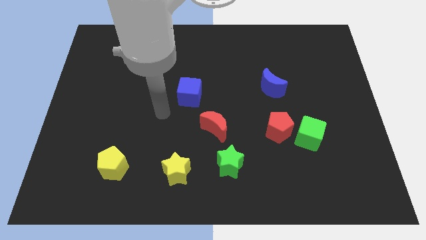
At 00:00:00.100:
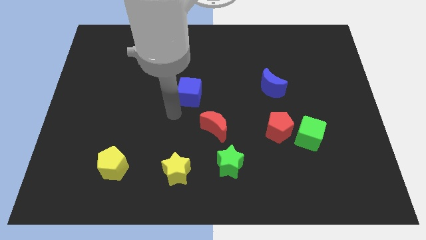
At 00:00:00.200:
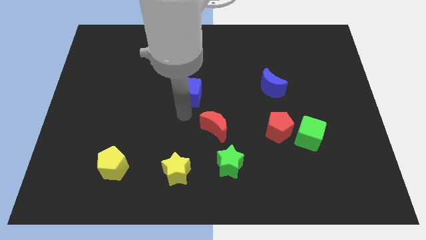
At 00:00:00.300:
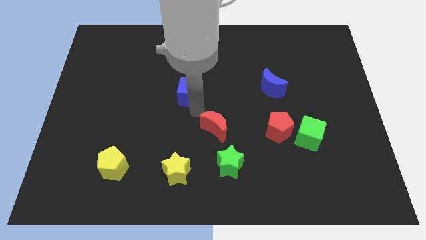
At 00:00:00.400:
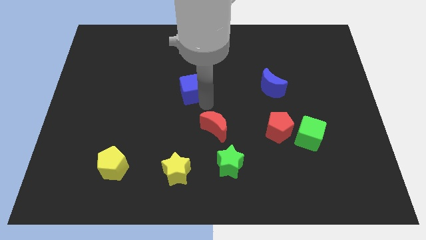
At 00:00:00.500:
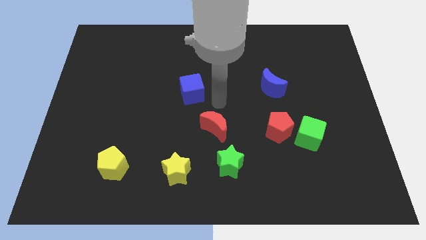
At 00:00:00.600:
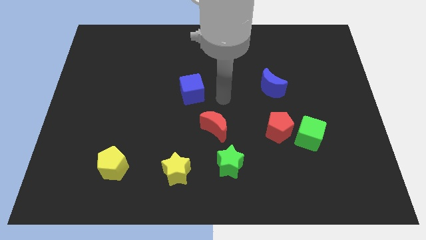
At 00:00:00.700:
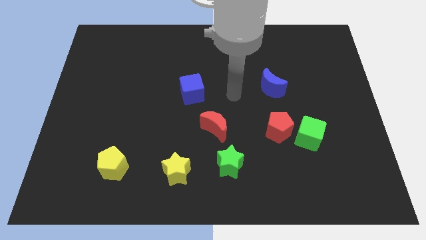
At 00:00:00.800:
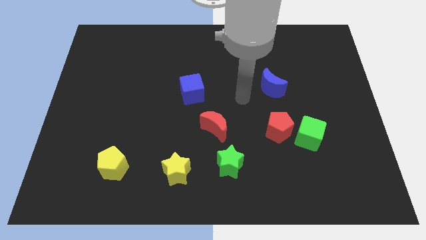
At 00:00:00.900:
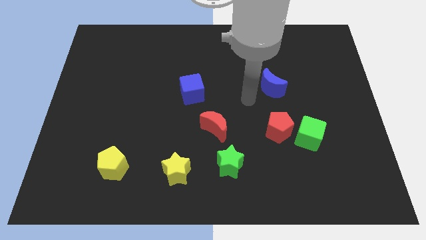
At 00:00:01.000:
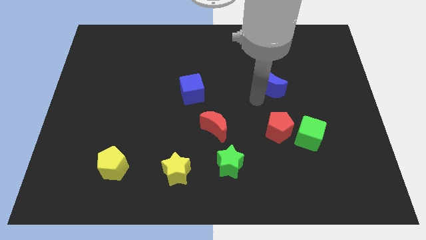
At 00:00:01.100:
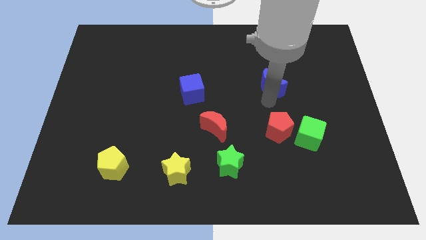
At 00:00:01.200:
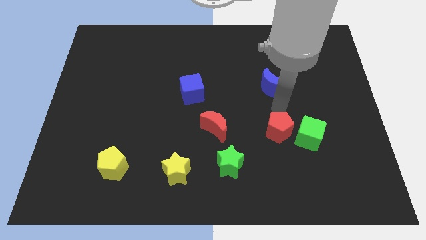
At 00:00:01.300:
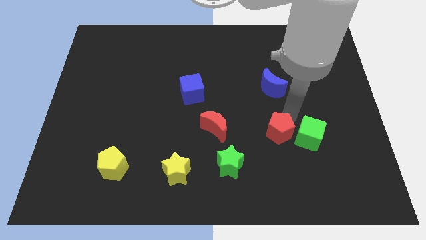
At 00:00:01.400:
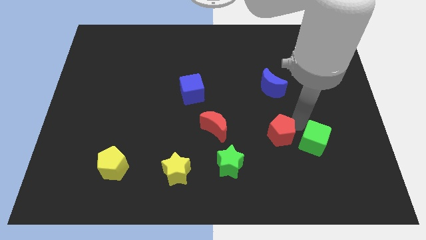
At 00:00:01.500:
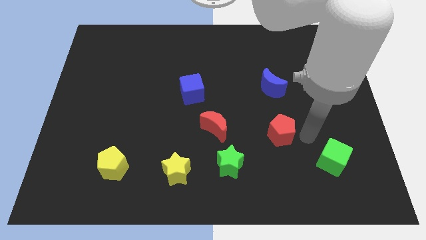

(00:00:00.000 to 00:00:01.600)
move the red pentagon away from the green cube

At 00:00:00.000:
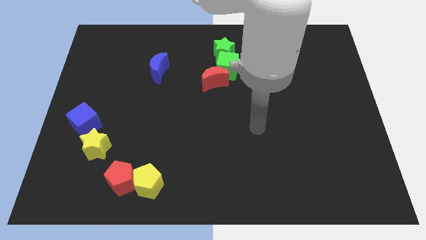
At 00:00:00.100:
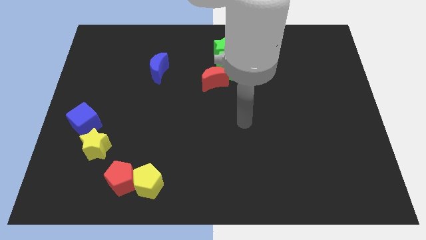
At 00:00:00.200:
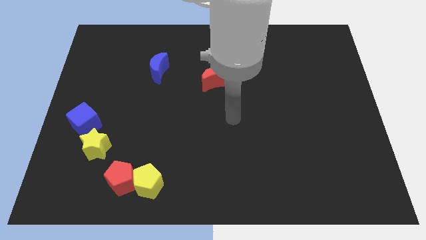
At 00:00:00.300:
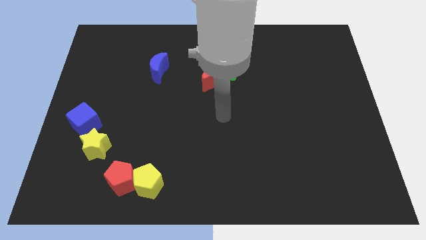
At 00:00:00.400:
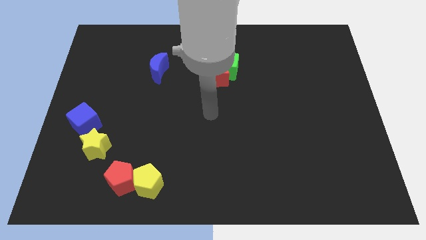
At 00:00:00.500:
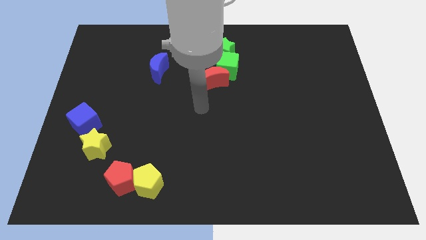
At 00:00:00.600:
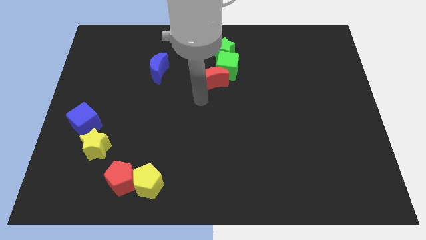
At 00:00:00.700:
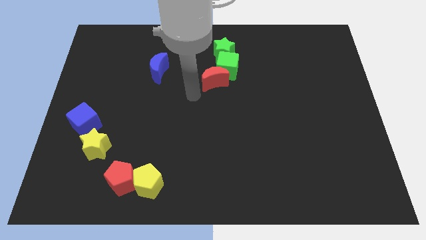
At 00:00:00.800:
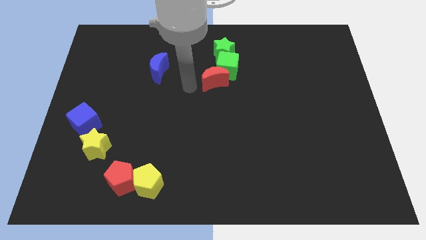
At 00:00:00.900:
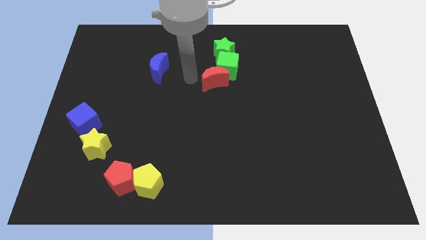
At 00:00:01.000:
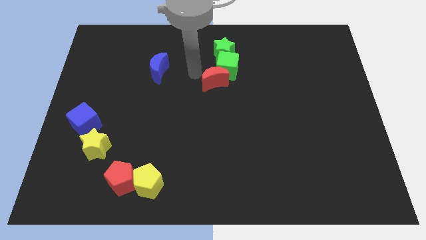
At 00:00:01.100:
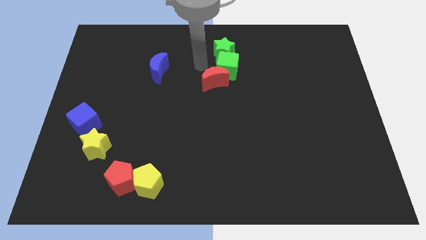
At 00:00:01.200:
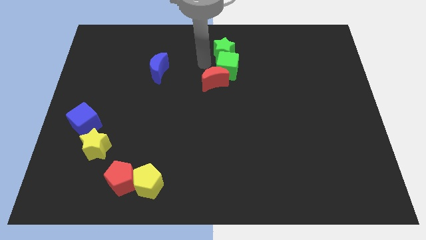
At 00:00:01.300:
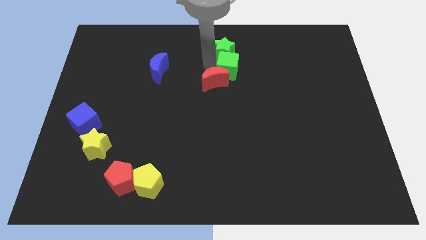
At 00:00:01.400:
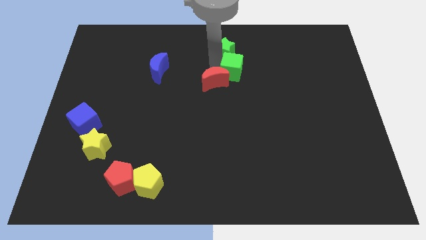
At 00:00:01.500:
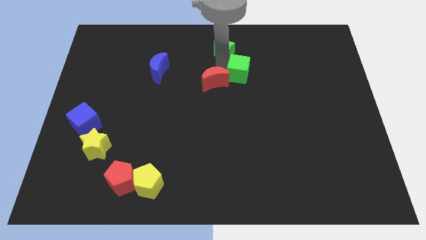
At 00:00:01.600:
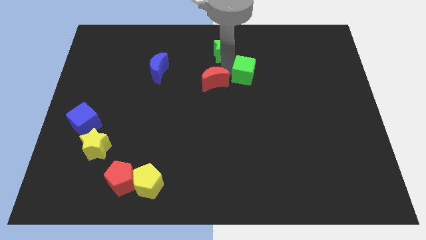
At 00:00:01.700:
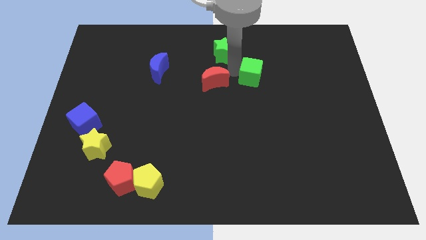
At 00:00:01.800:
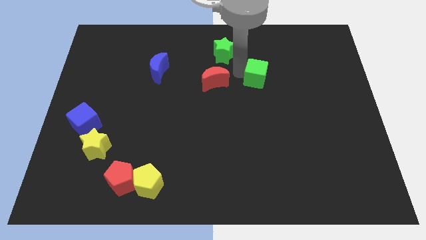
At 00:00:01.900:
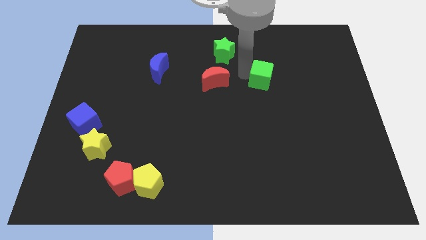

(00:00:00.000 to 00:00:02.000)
move the green cube away from the red moon and green star

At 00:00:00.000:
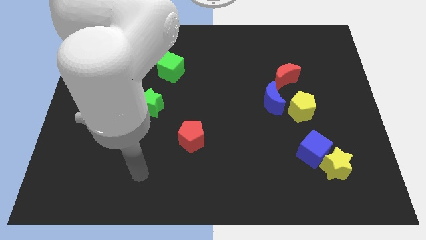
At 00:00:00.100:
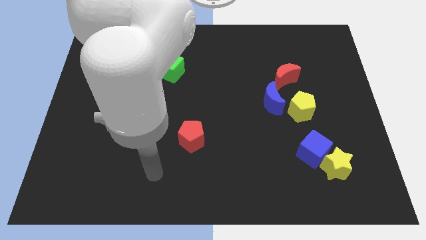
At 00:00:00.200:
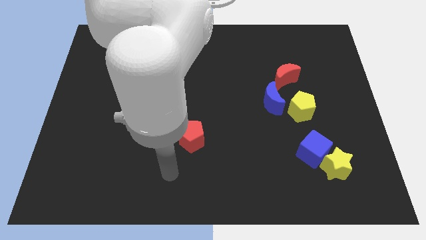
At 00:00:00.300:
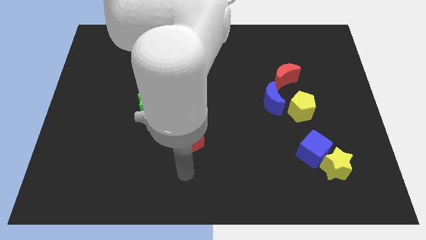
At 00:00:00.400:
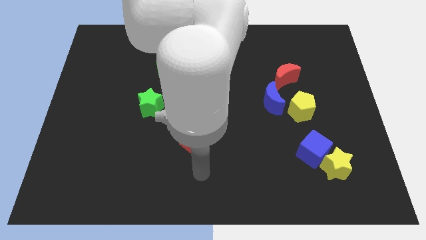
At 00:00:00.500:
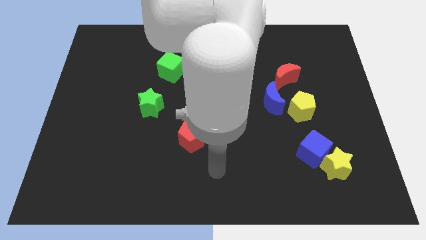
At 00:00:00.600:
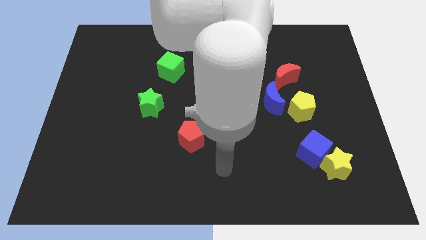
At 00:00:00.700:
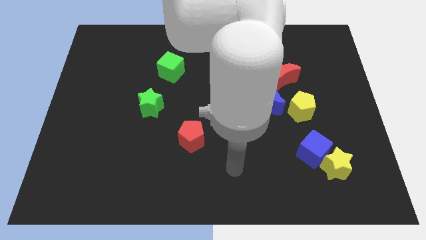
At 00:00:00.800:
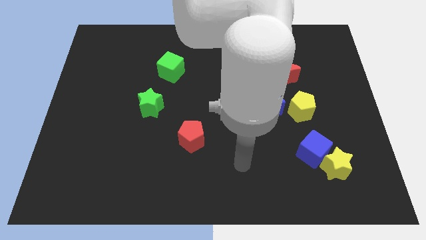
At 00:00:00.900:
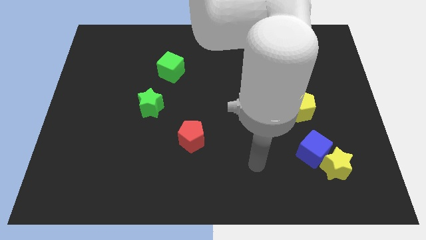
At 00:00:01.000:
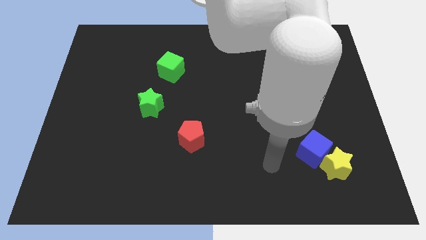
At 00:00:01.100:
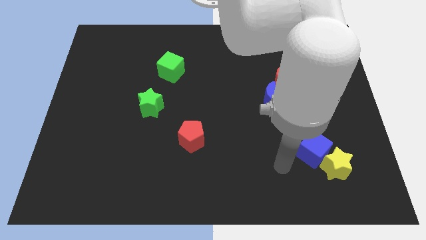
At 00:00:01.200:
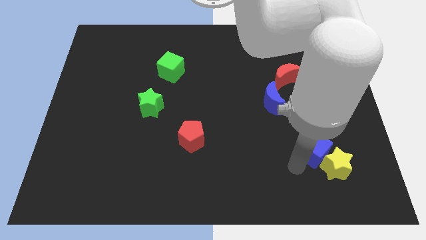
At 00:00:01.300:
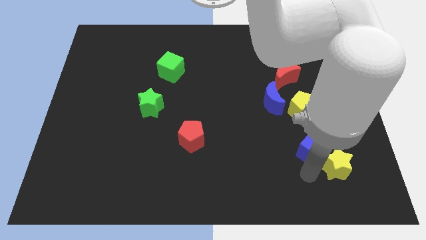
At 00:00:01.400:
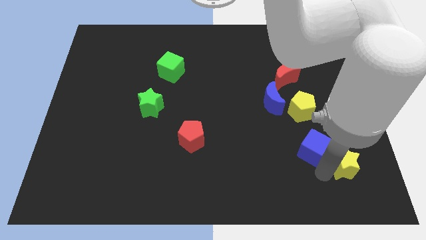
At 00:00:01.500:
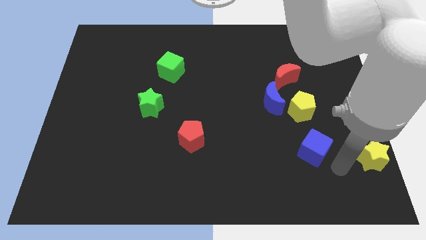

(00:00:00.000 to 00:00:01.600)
separate the blue cube from the yellow star

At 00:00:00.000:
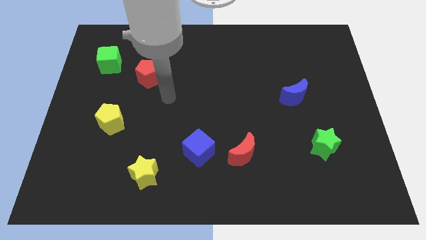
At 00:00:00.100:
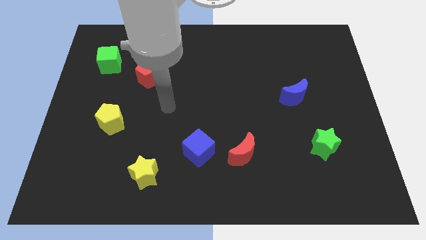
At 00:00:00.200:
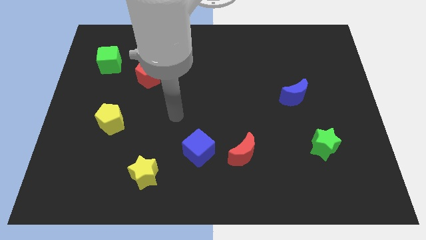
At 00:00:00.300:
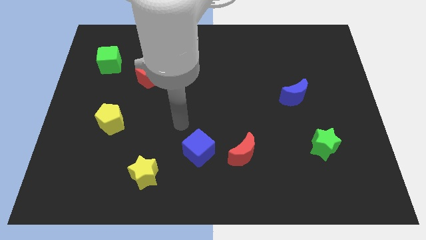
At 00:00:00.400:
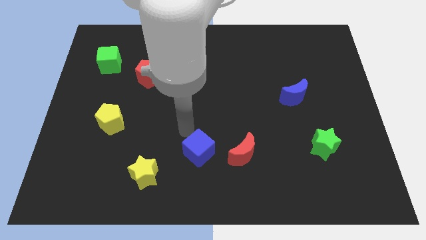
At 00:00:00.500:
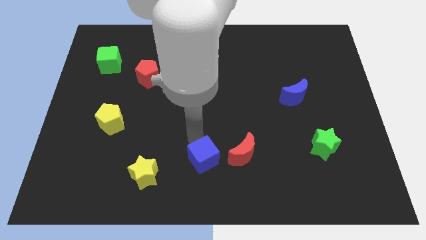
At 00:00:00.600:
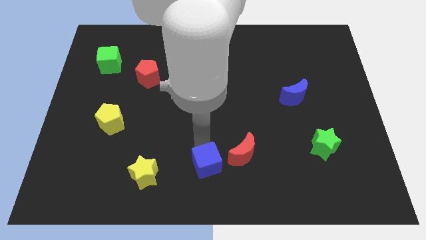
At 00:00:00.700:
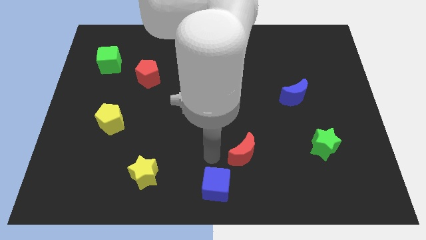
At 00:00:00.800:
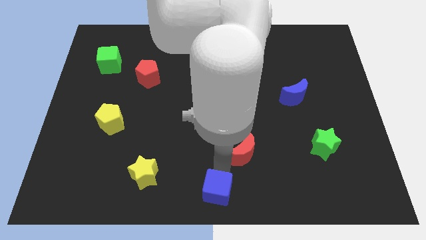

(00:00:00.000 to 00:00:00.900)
move the red moon away from the blue cube

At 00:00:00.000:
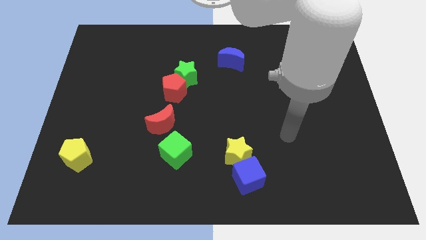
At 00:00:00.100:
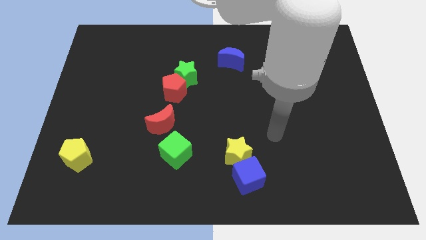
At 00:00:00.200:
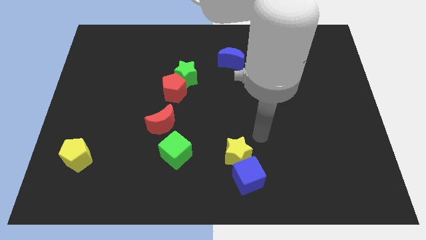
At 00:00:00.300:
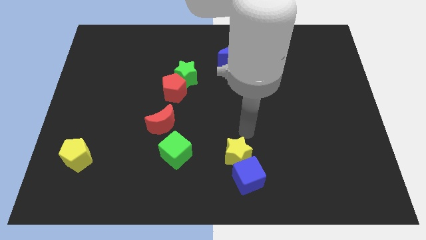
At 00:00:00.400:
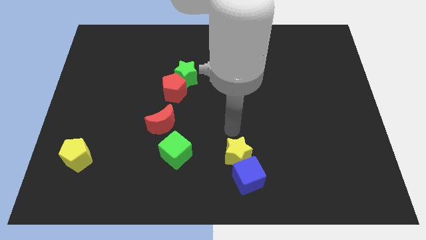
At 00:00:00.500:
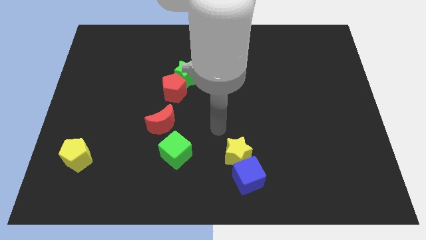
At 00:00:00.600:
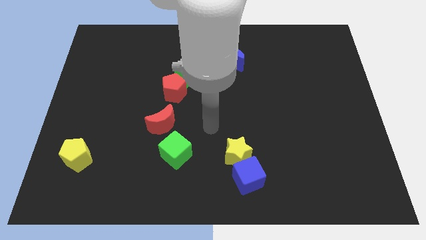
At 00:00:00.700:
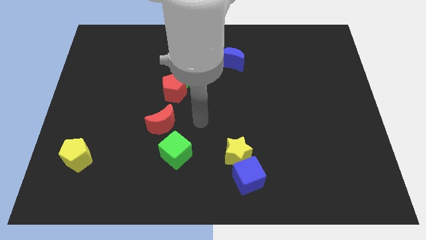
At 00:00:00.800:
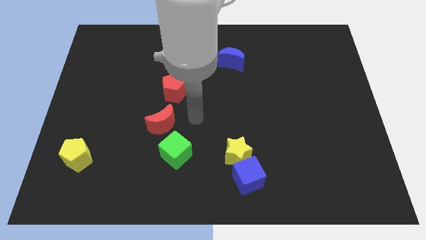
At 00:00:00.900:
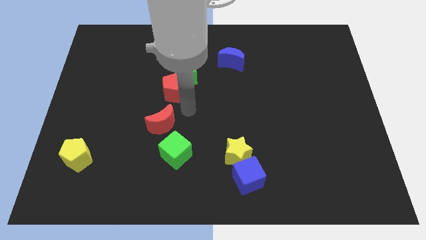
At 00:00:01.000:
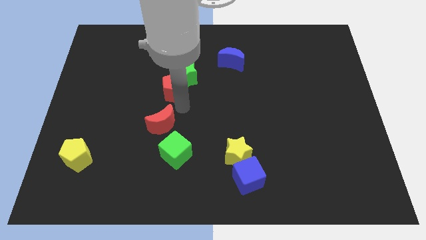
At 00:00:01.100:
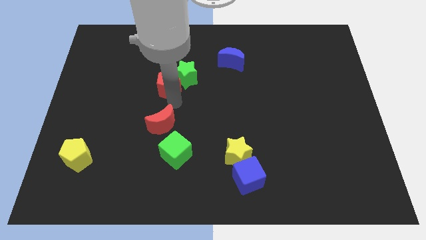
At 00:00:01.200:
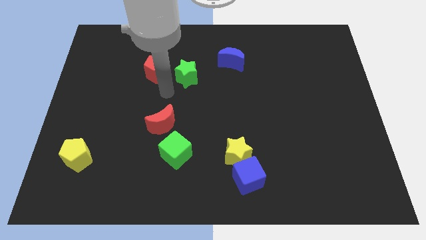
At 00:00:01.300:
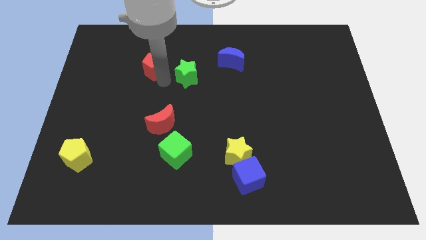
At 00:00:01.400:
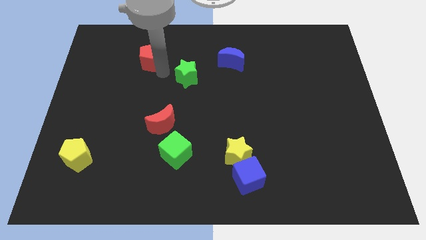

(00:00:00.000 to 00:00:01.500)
pull the green star apart from the red pentagon

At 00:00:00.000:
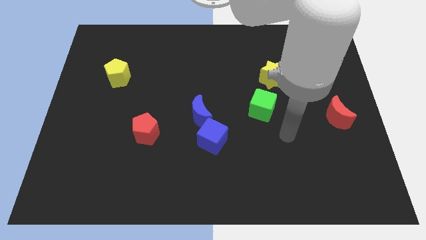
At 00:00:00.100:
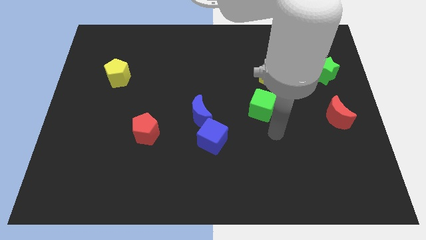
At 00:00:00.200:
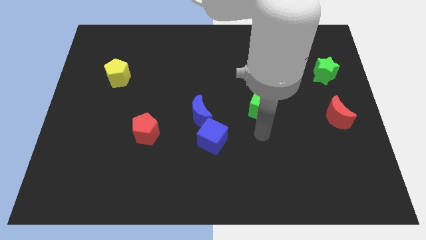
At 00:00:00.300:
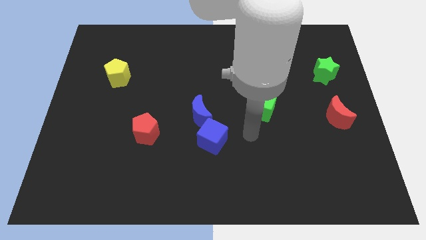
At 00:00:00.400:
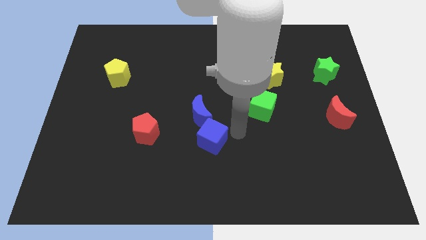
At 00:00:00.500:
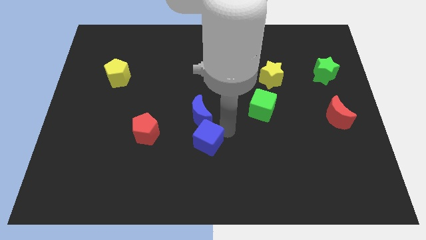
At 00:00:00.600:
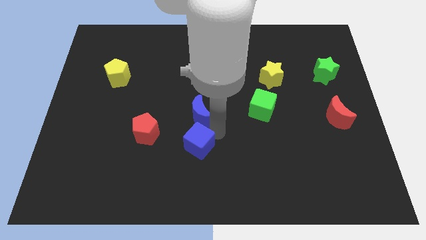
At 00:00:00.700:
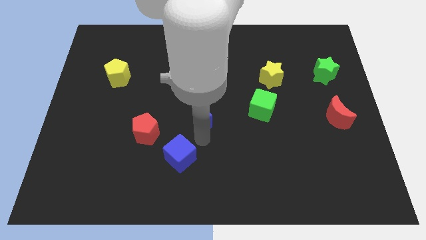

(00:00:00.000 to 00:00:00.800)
move the blue moon away from the blue cube

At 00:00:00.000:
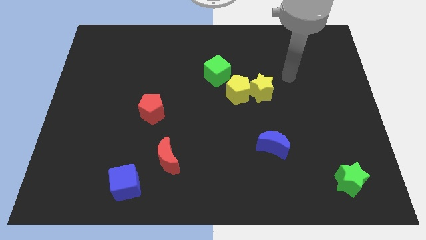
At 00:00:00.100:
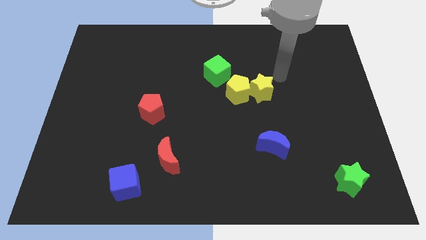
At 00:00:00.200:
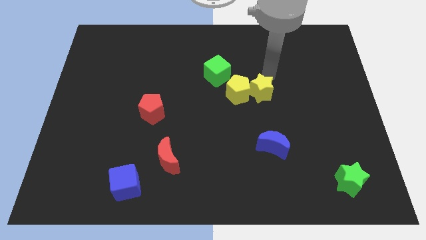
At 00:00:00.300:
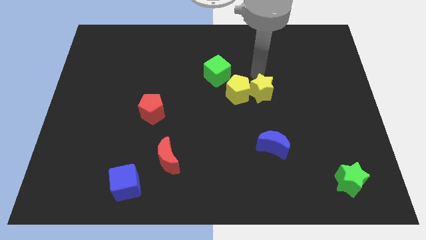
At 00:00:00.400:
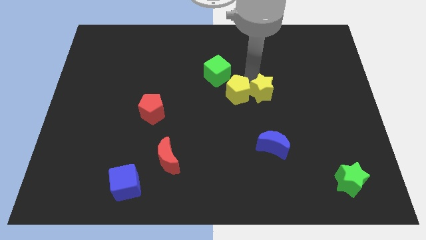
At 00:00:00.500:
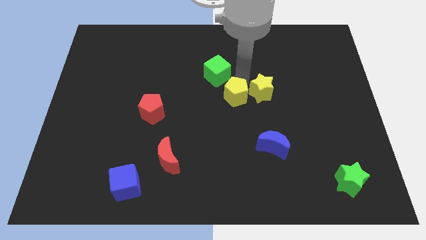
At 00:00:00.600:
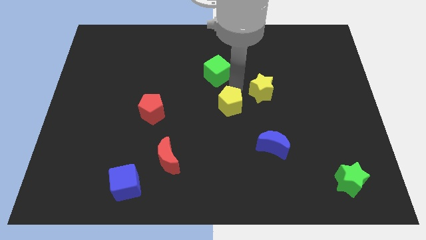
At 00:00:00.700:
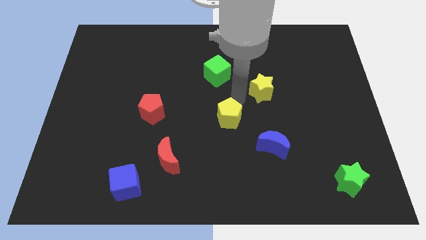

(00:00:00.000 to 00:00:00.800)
pull the yellow star apart from the yellow pentagon
